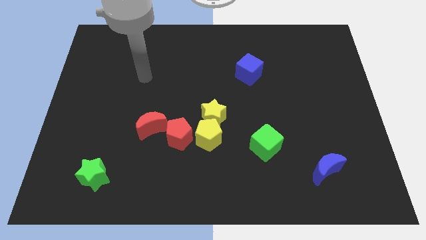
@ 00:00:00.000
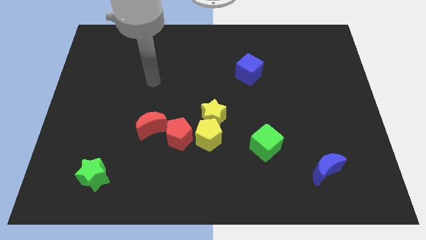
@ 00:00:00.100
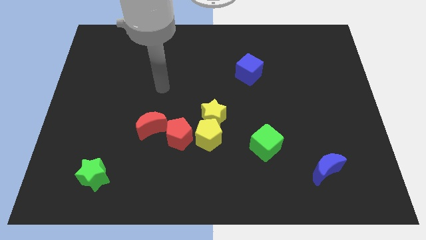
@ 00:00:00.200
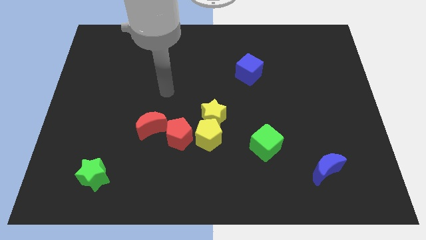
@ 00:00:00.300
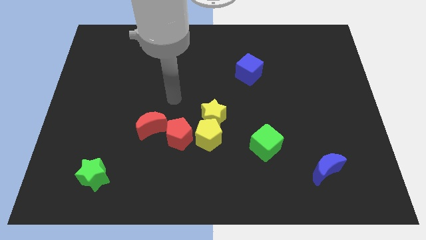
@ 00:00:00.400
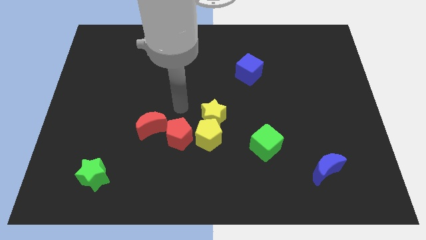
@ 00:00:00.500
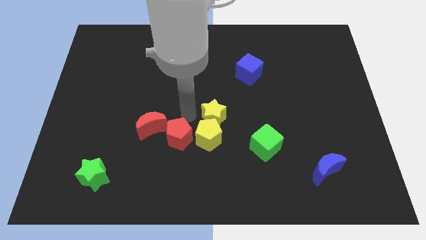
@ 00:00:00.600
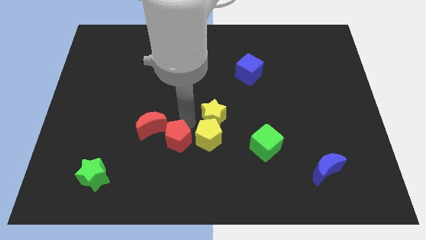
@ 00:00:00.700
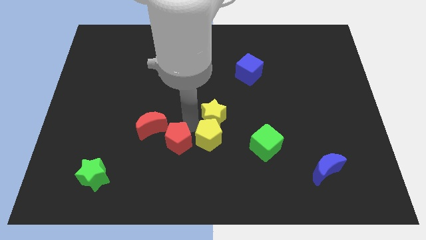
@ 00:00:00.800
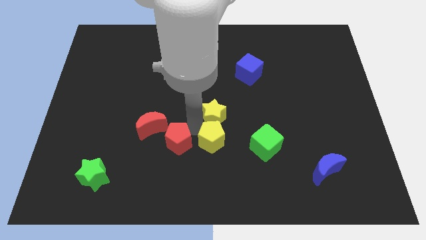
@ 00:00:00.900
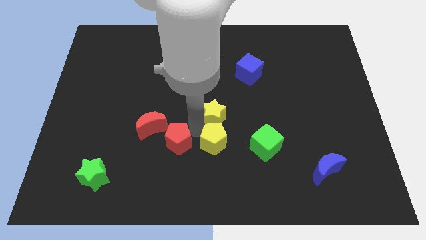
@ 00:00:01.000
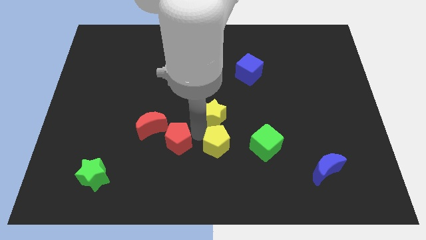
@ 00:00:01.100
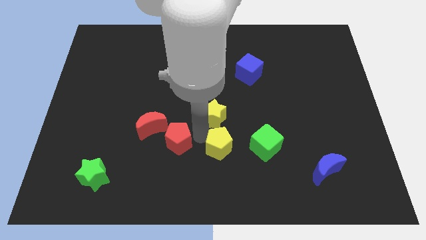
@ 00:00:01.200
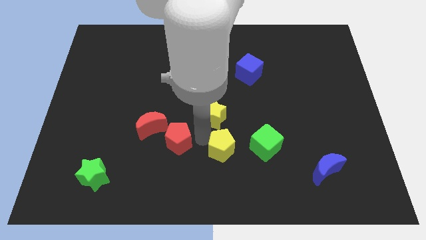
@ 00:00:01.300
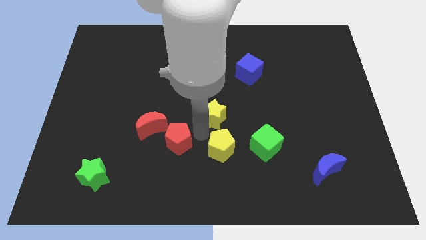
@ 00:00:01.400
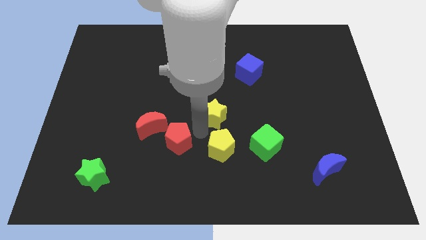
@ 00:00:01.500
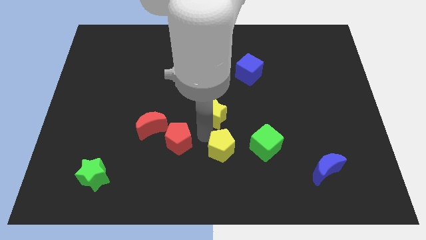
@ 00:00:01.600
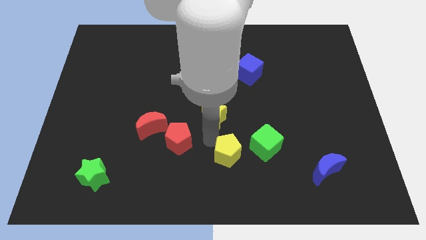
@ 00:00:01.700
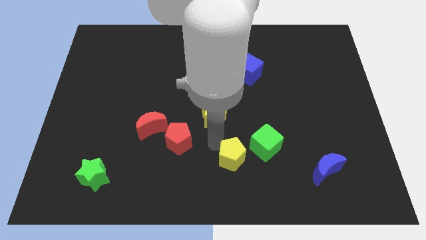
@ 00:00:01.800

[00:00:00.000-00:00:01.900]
pull the yellow pentagon apart from the yellow star and red pentagon

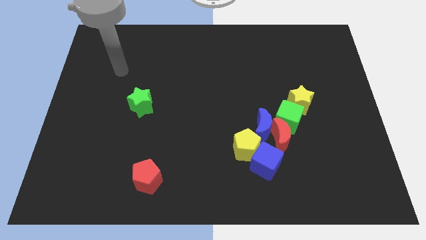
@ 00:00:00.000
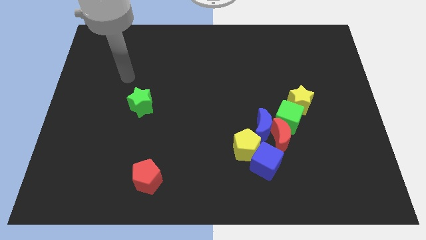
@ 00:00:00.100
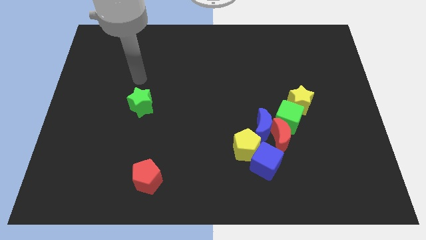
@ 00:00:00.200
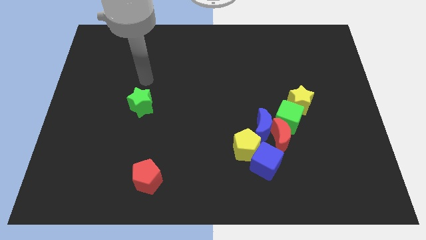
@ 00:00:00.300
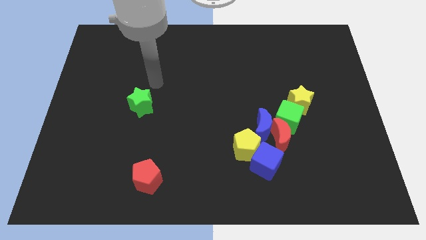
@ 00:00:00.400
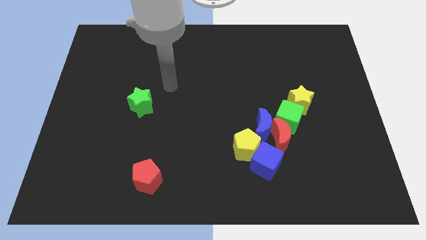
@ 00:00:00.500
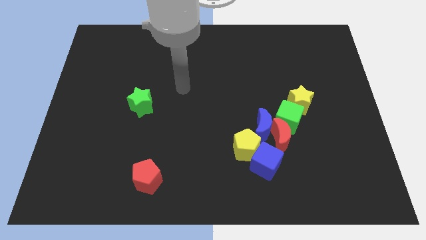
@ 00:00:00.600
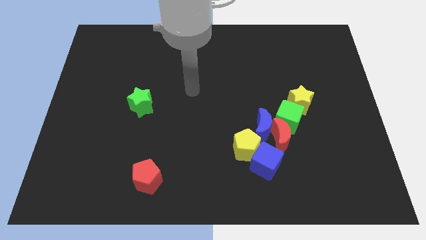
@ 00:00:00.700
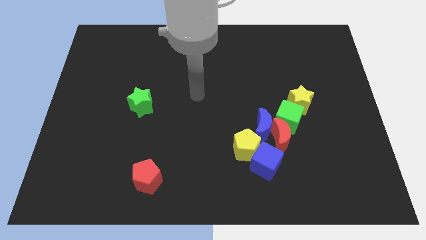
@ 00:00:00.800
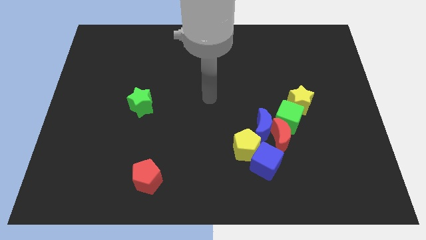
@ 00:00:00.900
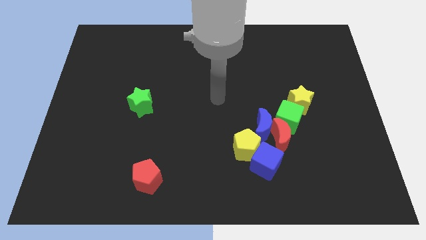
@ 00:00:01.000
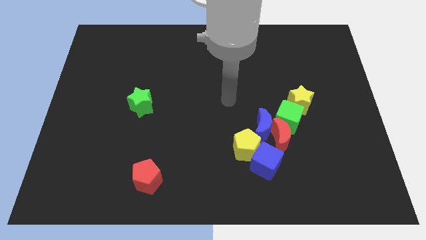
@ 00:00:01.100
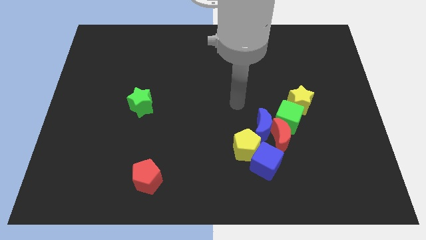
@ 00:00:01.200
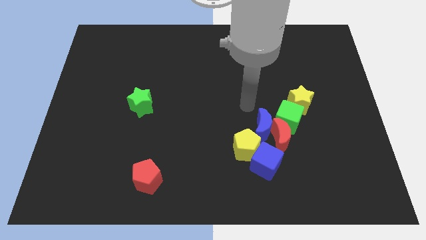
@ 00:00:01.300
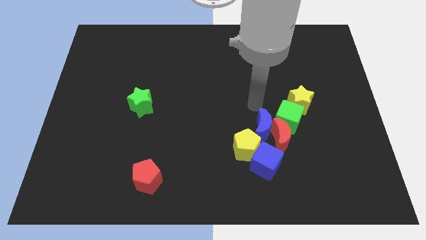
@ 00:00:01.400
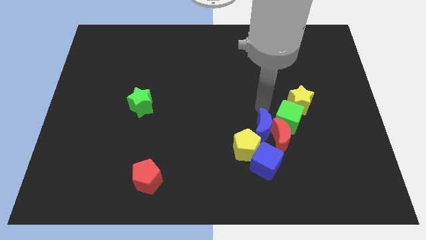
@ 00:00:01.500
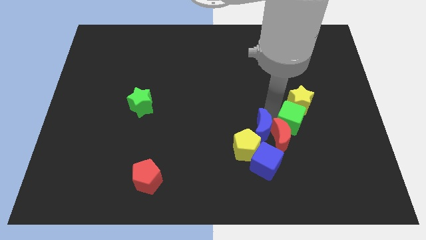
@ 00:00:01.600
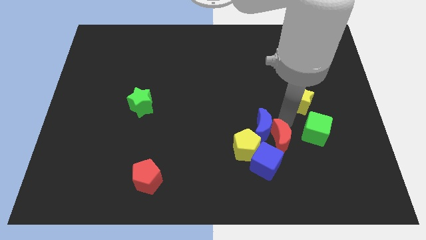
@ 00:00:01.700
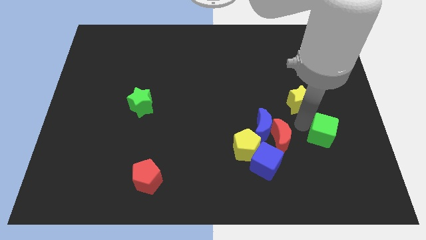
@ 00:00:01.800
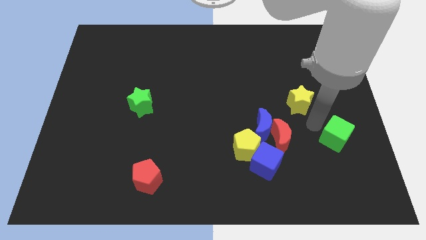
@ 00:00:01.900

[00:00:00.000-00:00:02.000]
separate the yellow star from the green cube

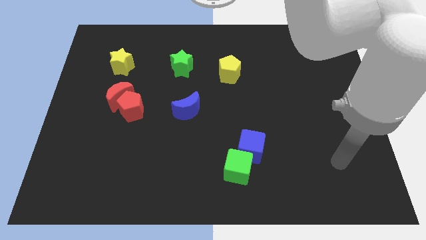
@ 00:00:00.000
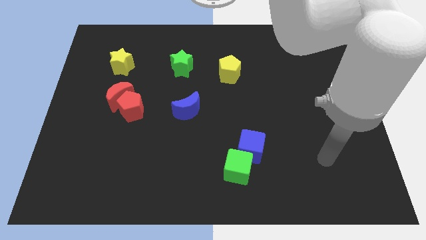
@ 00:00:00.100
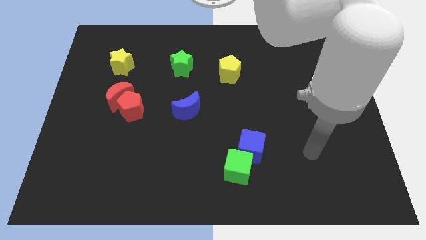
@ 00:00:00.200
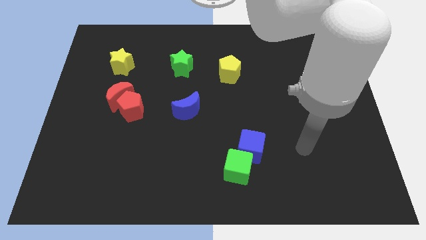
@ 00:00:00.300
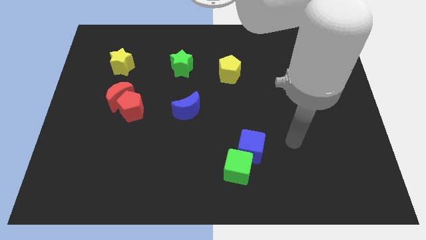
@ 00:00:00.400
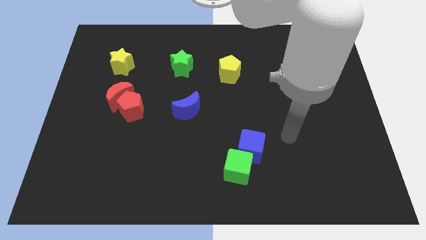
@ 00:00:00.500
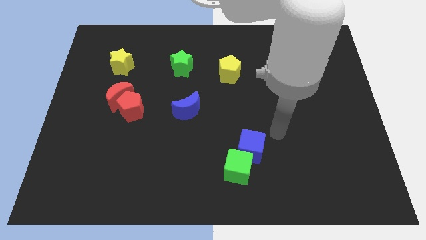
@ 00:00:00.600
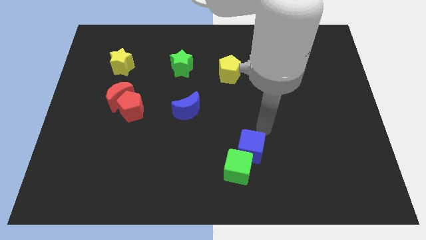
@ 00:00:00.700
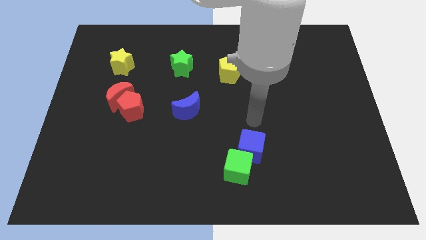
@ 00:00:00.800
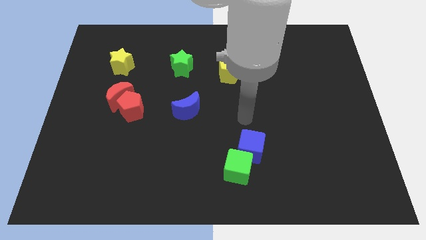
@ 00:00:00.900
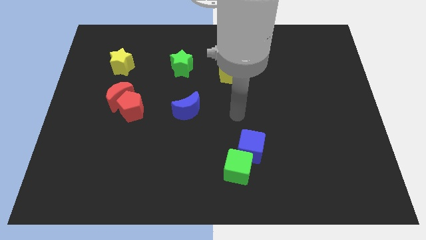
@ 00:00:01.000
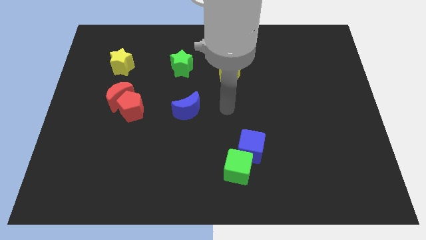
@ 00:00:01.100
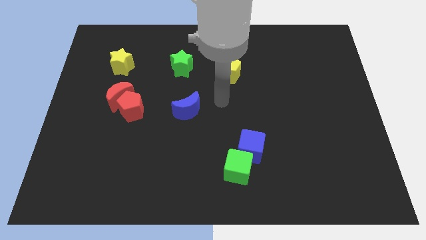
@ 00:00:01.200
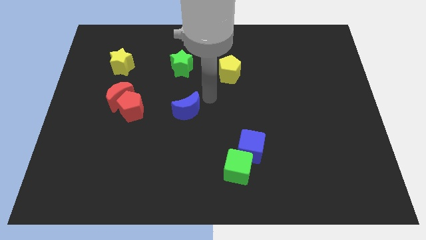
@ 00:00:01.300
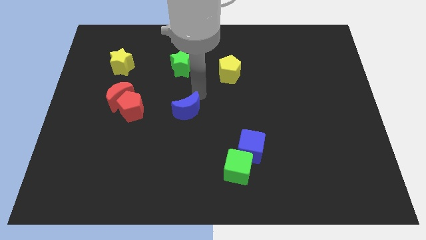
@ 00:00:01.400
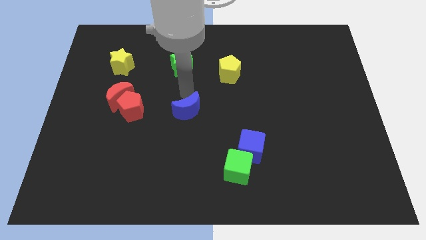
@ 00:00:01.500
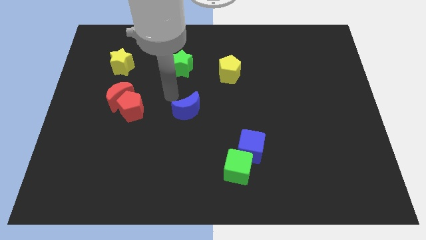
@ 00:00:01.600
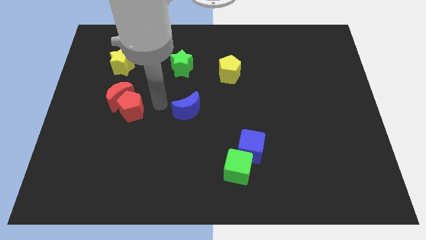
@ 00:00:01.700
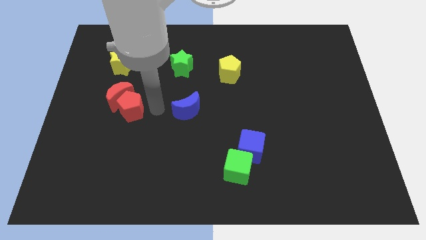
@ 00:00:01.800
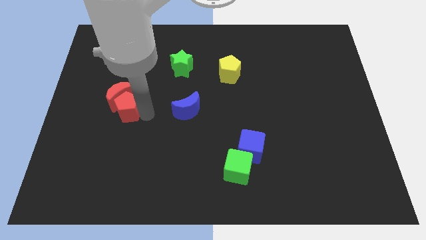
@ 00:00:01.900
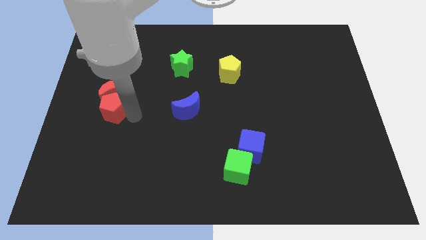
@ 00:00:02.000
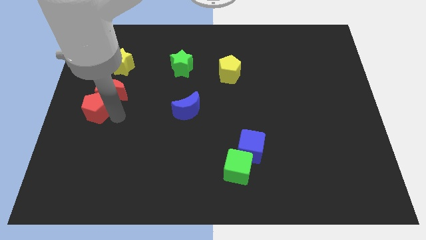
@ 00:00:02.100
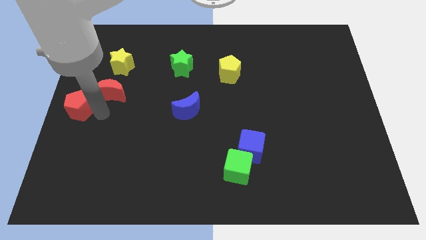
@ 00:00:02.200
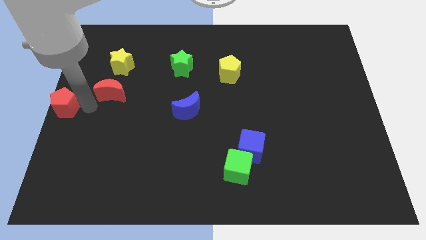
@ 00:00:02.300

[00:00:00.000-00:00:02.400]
move the red moon away from the red pentagon

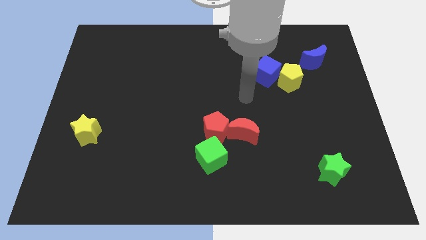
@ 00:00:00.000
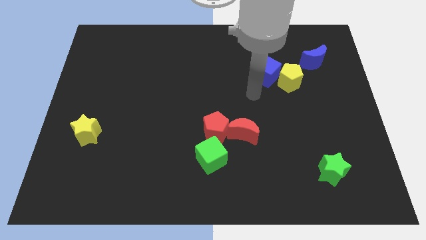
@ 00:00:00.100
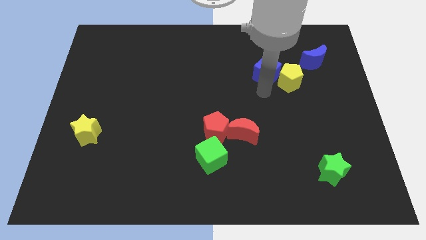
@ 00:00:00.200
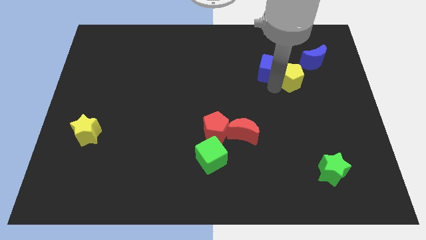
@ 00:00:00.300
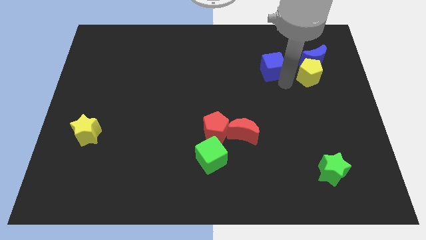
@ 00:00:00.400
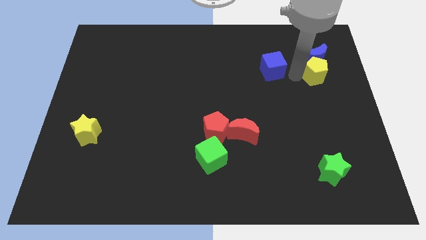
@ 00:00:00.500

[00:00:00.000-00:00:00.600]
move the blue cube away from the yellow pentagon

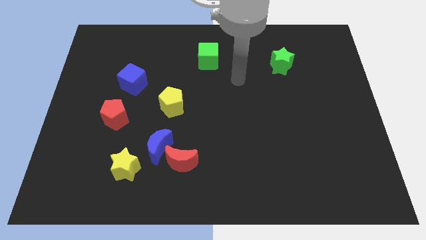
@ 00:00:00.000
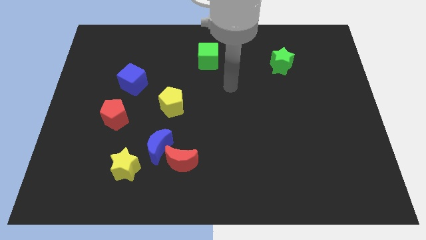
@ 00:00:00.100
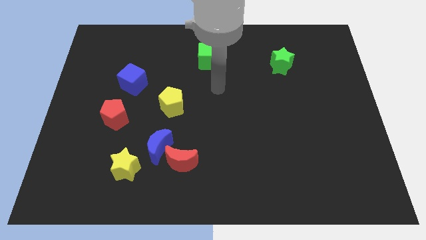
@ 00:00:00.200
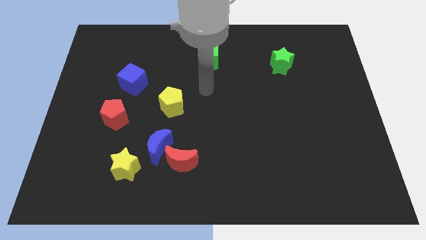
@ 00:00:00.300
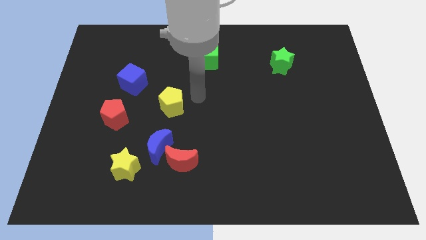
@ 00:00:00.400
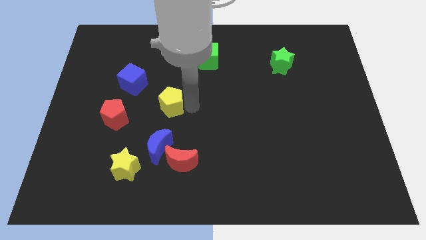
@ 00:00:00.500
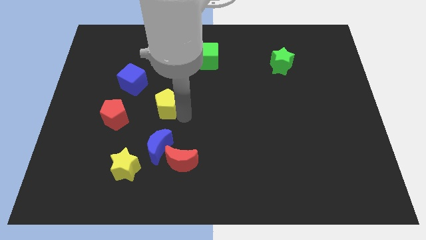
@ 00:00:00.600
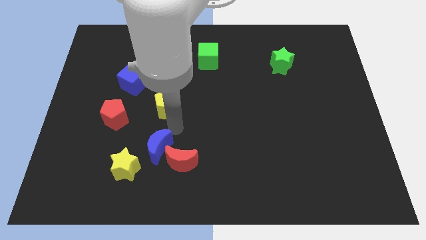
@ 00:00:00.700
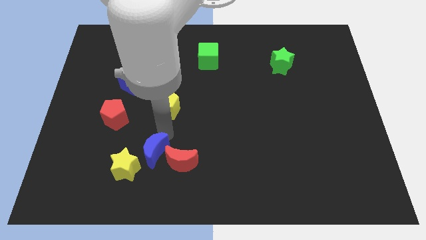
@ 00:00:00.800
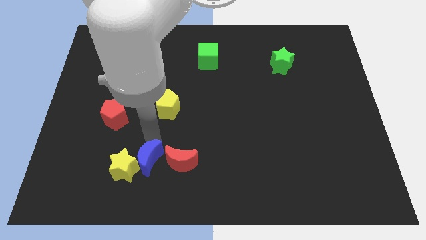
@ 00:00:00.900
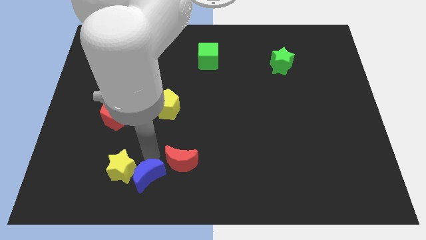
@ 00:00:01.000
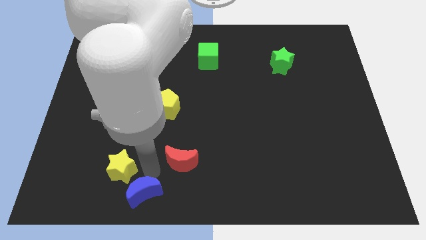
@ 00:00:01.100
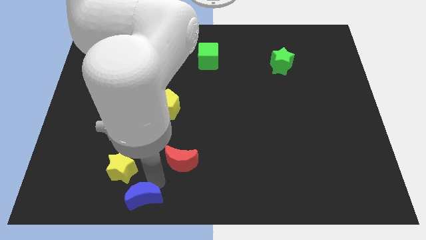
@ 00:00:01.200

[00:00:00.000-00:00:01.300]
pull the red moon apart from the blue moon

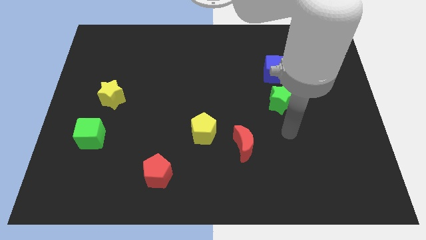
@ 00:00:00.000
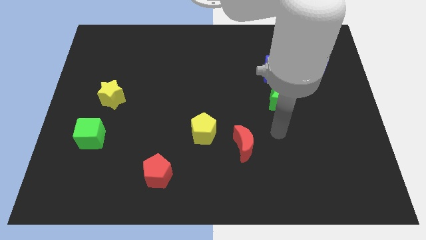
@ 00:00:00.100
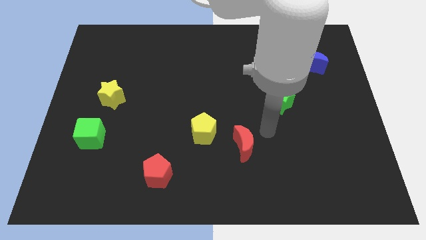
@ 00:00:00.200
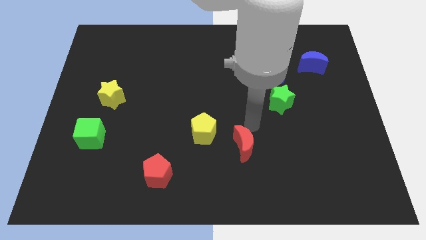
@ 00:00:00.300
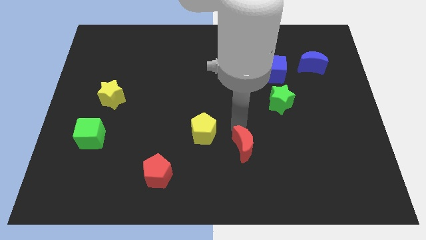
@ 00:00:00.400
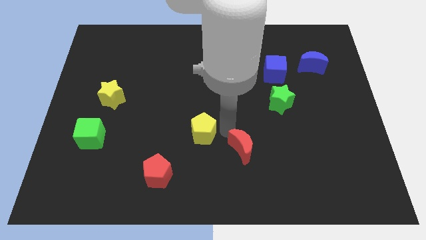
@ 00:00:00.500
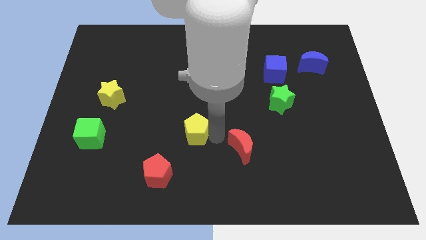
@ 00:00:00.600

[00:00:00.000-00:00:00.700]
pull the red moon apart from the yellow pentagon

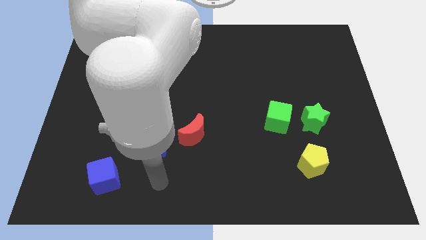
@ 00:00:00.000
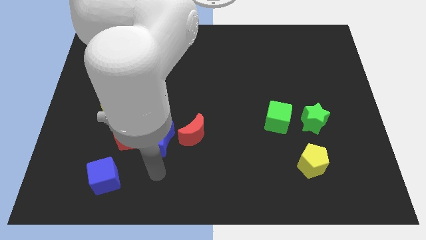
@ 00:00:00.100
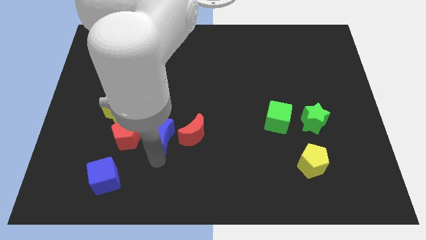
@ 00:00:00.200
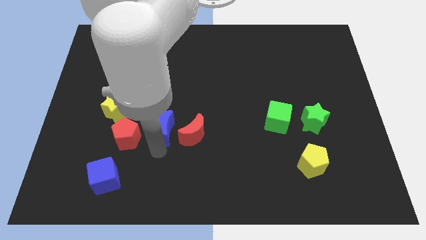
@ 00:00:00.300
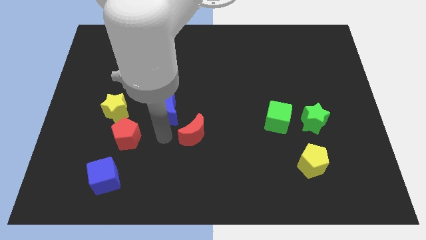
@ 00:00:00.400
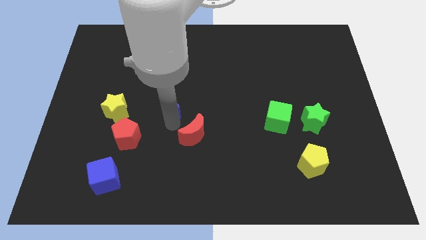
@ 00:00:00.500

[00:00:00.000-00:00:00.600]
move the red moon away from the blue moon
